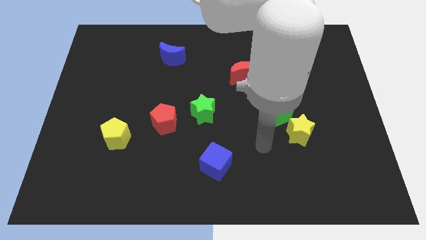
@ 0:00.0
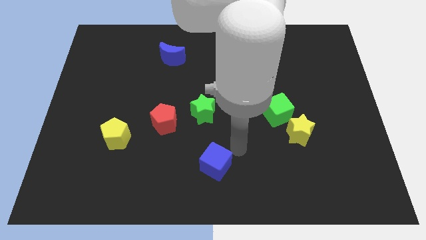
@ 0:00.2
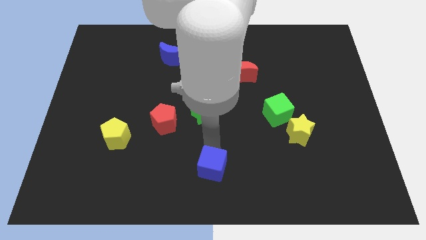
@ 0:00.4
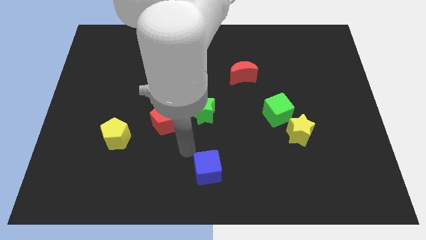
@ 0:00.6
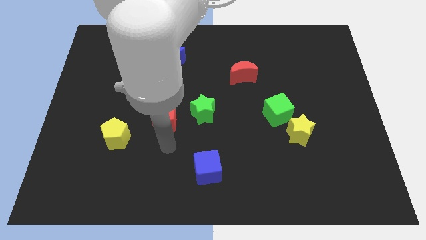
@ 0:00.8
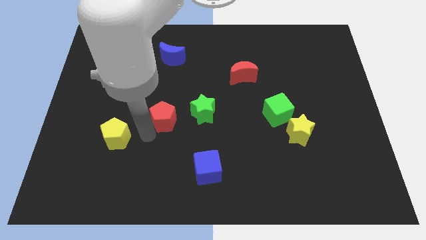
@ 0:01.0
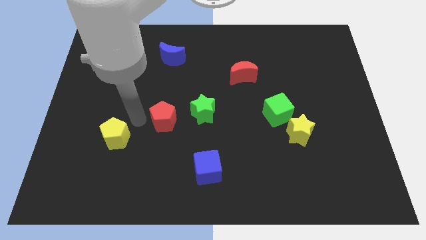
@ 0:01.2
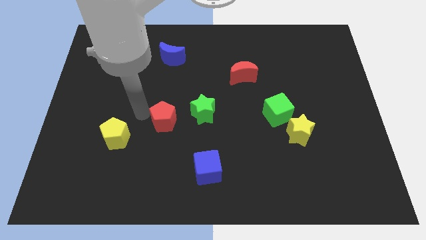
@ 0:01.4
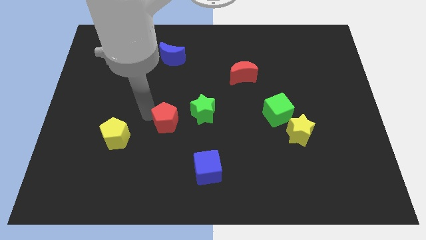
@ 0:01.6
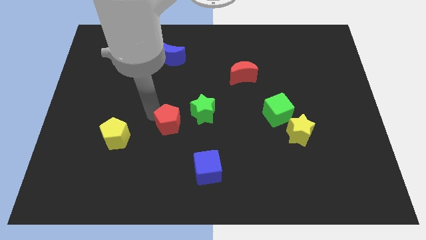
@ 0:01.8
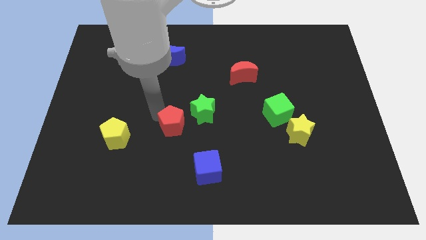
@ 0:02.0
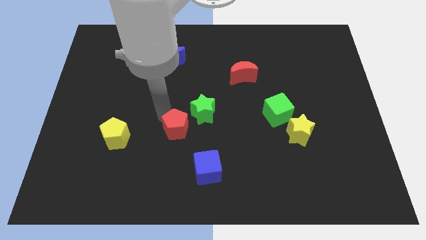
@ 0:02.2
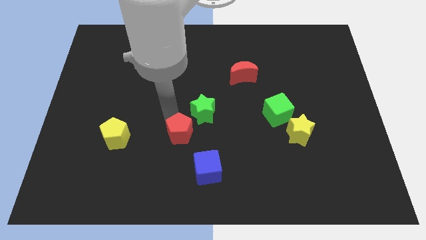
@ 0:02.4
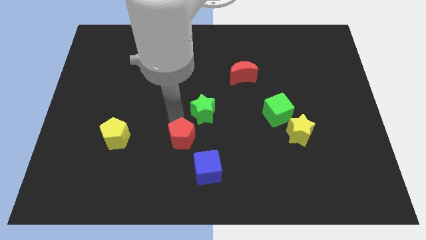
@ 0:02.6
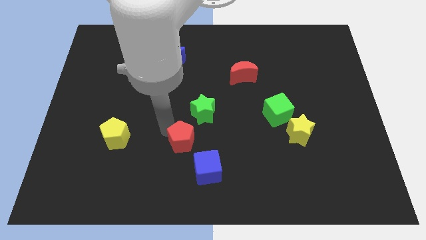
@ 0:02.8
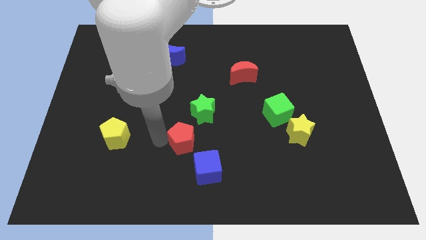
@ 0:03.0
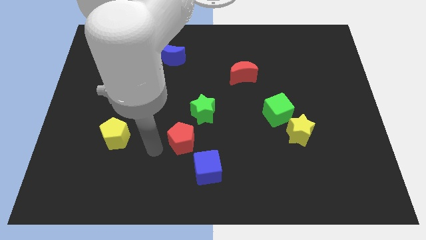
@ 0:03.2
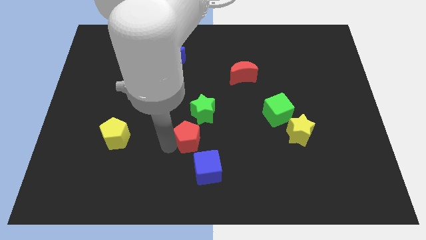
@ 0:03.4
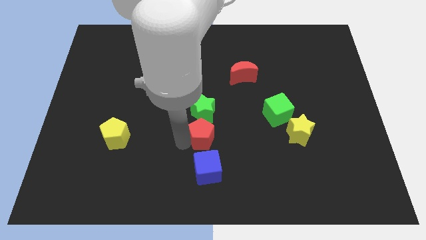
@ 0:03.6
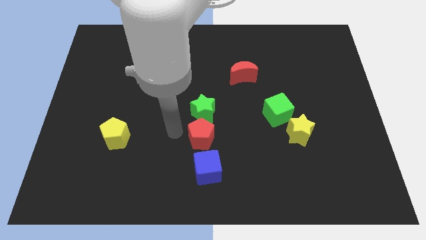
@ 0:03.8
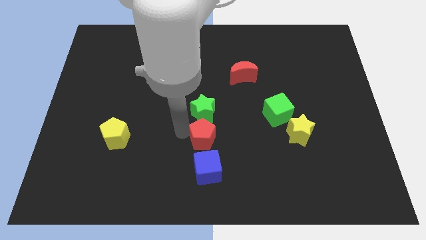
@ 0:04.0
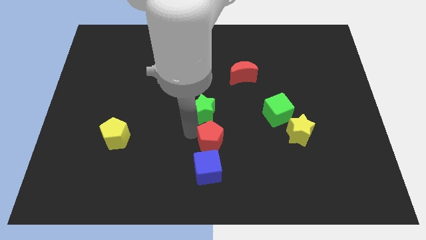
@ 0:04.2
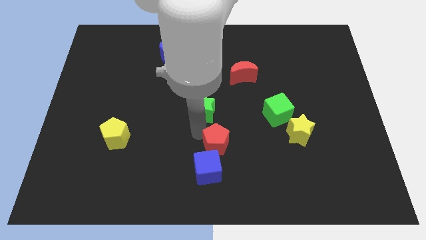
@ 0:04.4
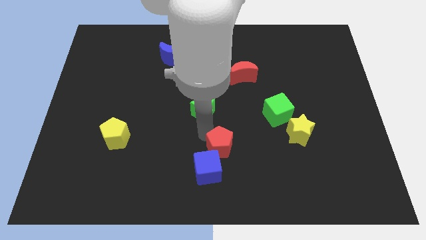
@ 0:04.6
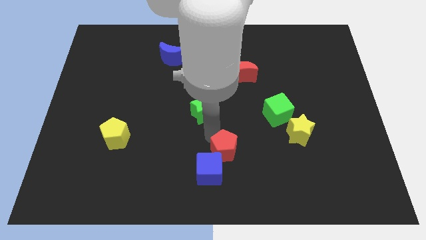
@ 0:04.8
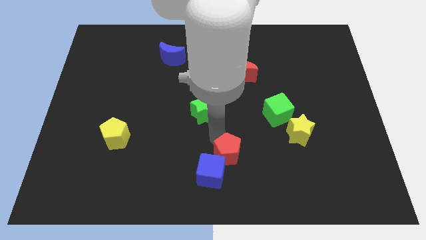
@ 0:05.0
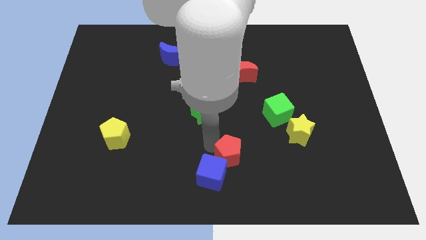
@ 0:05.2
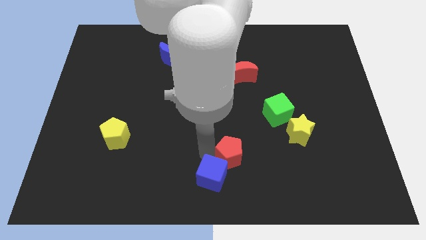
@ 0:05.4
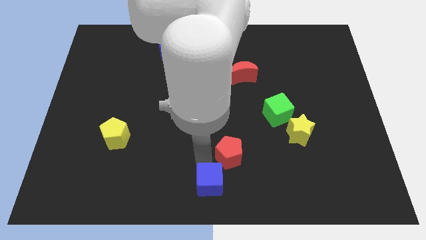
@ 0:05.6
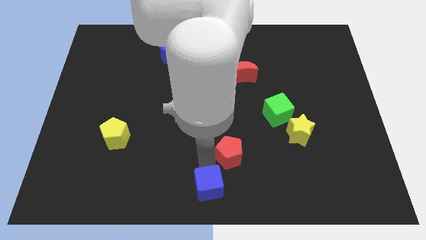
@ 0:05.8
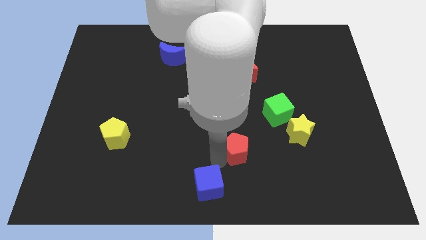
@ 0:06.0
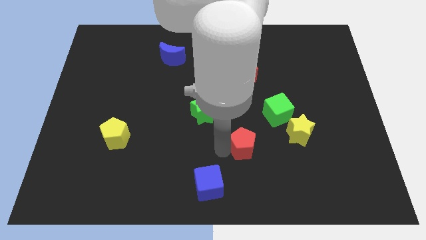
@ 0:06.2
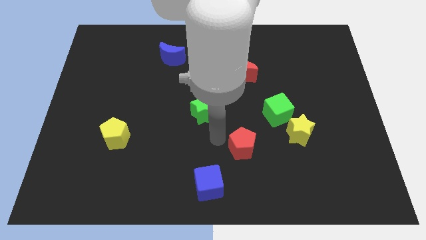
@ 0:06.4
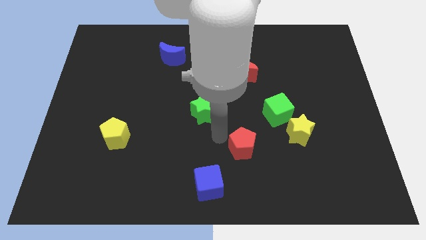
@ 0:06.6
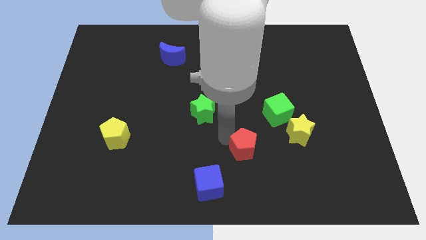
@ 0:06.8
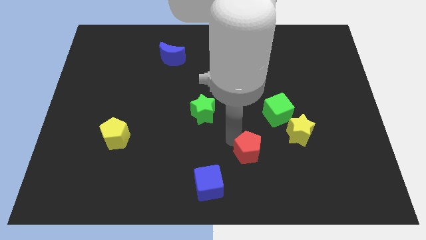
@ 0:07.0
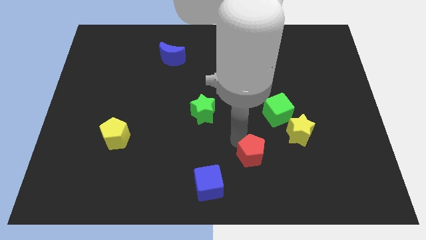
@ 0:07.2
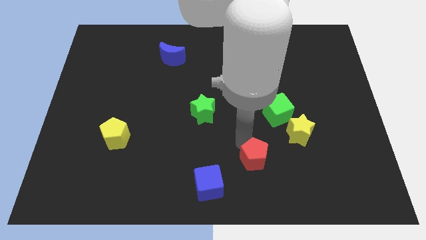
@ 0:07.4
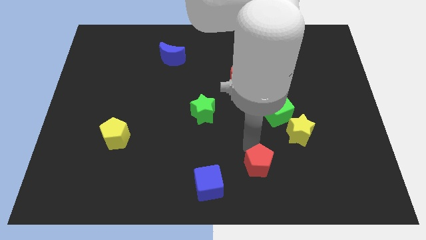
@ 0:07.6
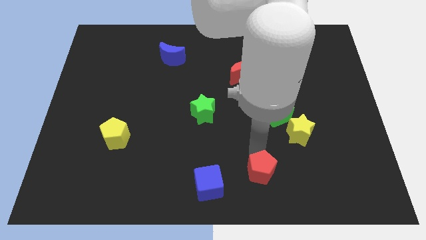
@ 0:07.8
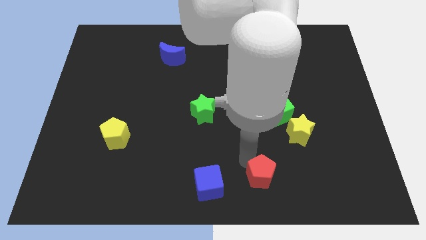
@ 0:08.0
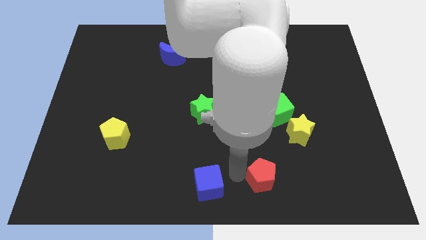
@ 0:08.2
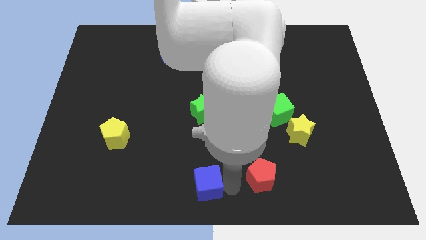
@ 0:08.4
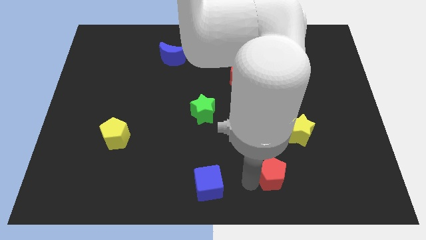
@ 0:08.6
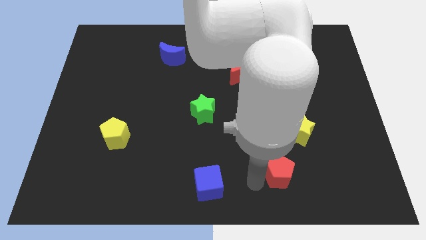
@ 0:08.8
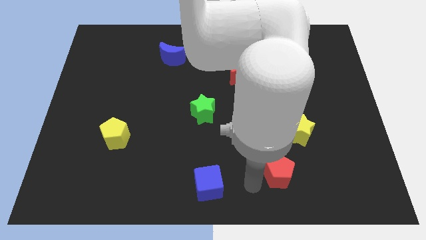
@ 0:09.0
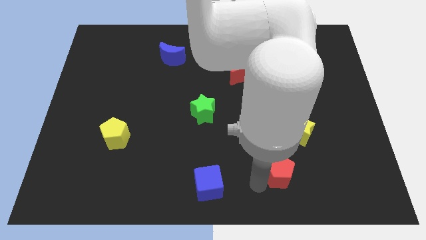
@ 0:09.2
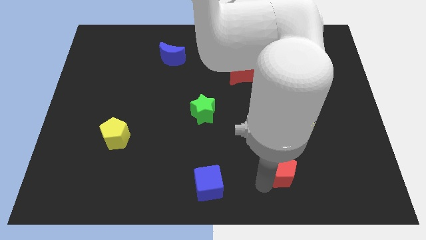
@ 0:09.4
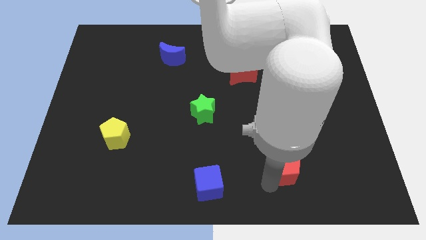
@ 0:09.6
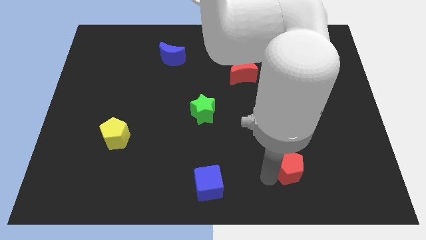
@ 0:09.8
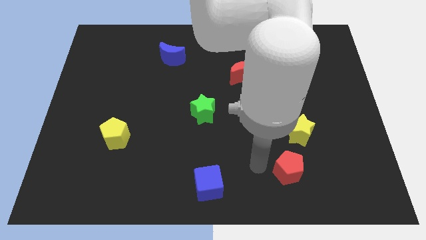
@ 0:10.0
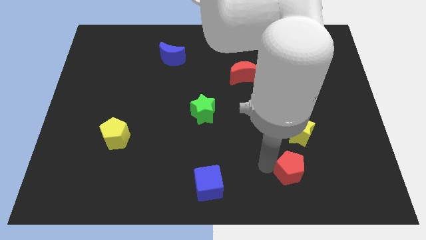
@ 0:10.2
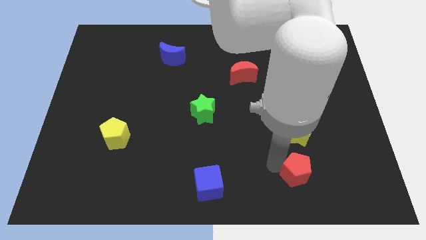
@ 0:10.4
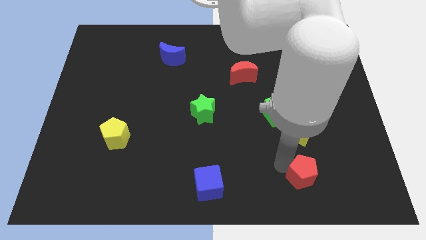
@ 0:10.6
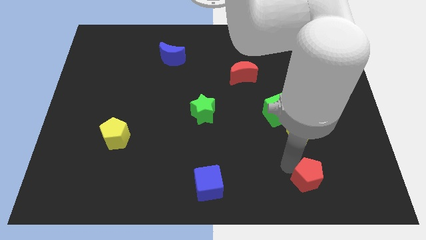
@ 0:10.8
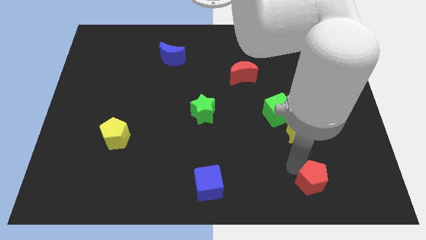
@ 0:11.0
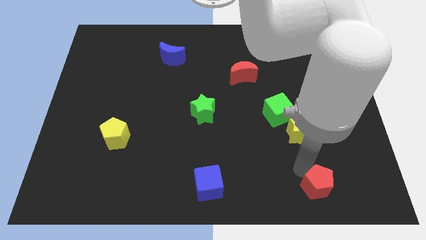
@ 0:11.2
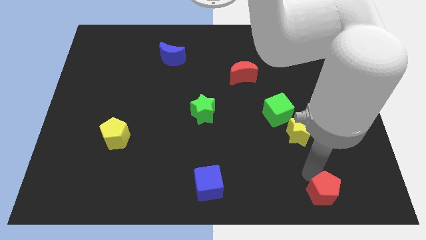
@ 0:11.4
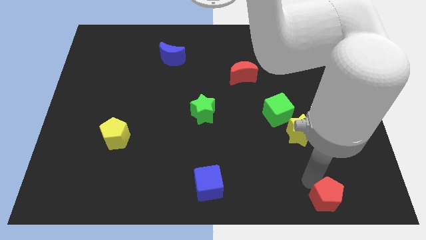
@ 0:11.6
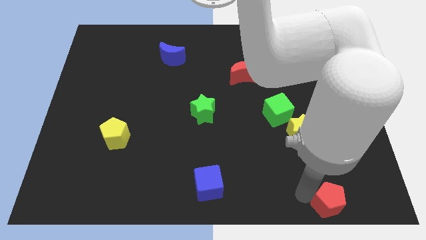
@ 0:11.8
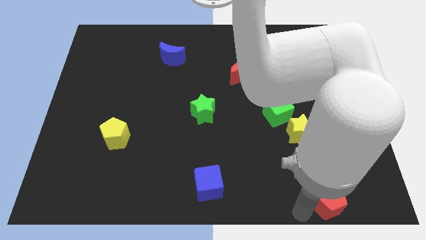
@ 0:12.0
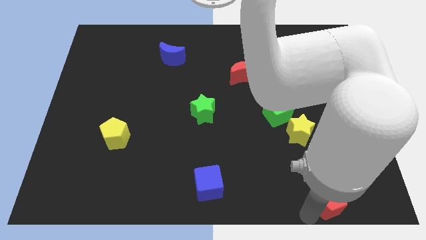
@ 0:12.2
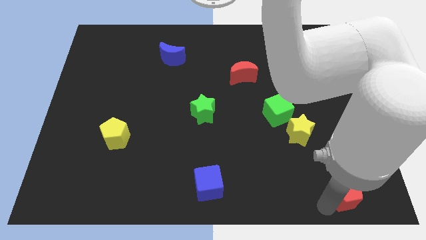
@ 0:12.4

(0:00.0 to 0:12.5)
put the red pentagon to the bottom right of the board
